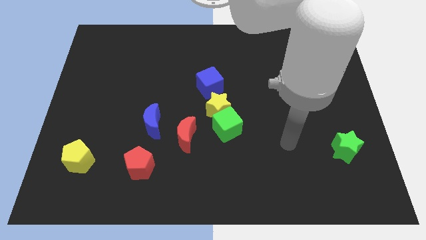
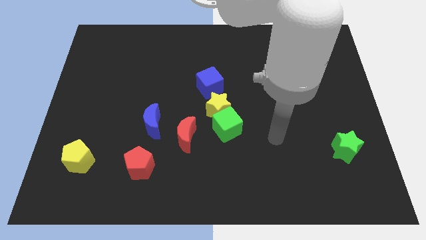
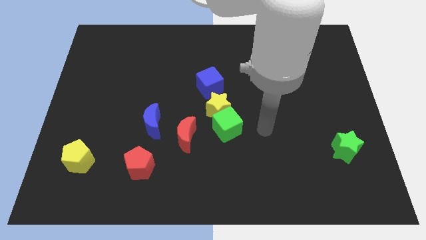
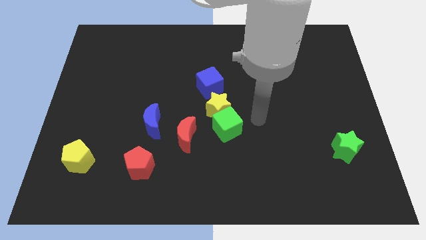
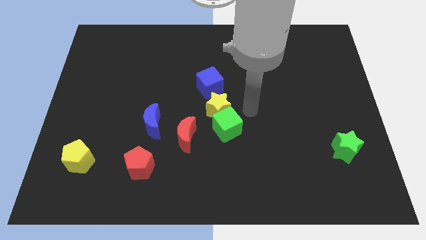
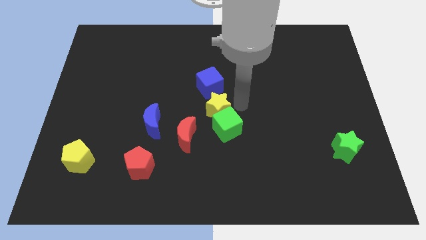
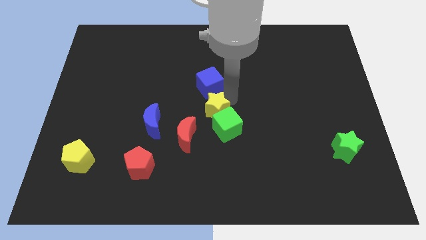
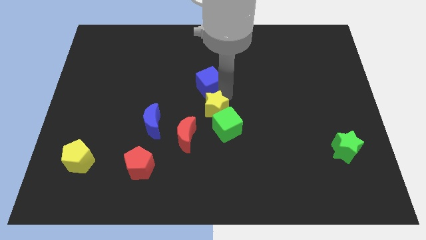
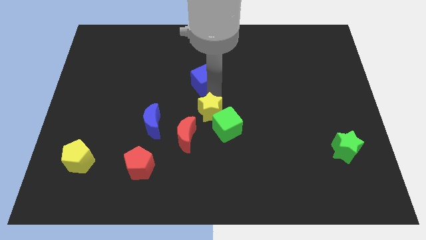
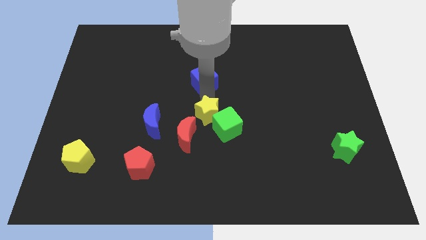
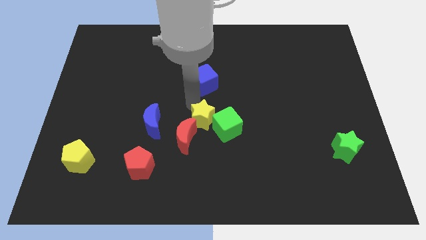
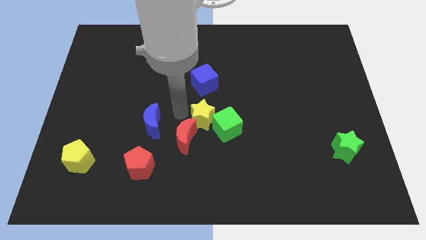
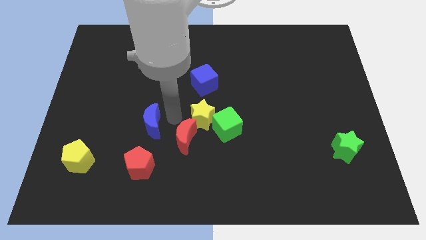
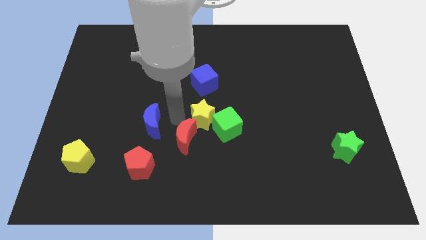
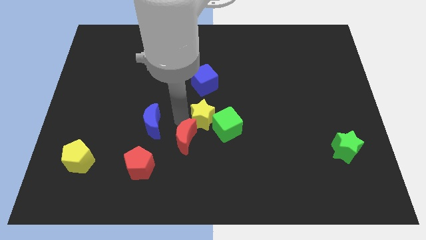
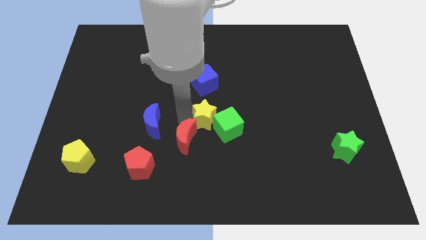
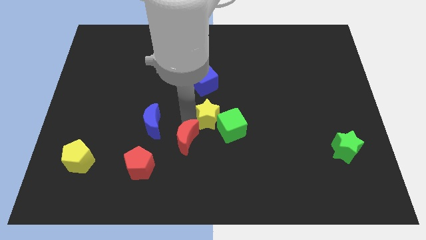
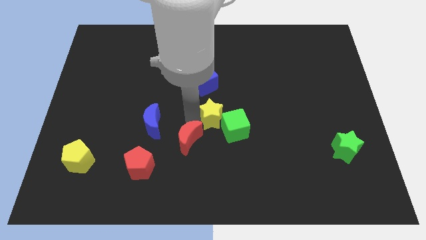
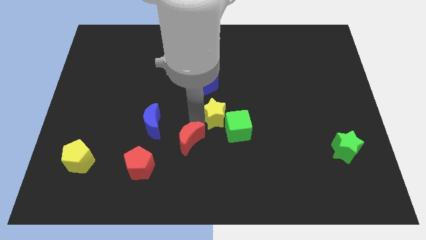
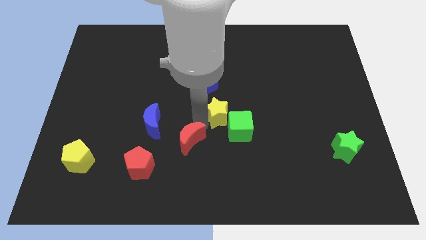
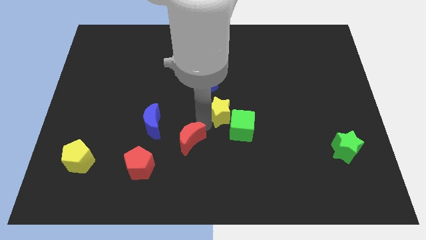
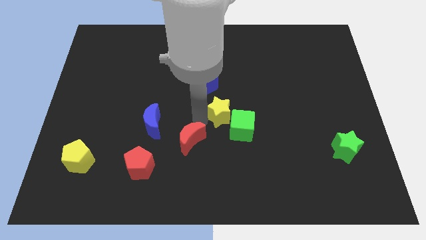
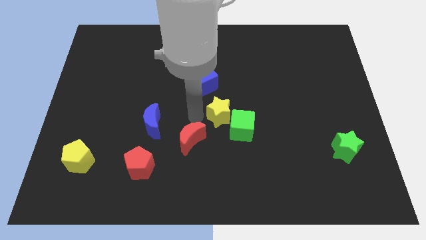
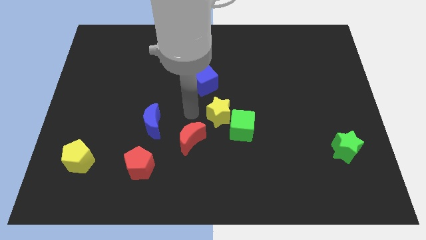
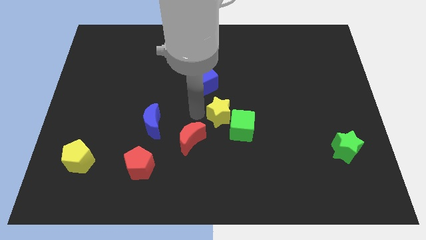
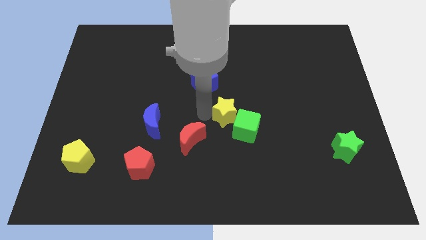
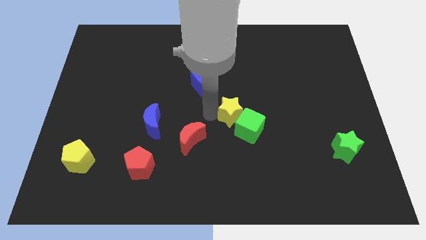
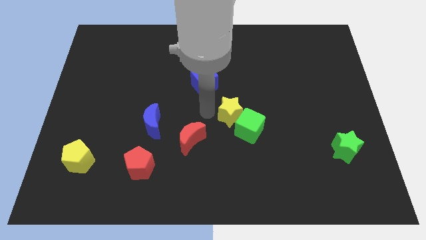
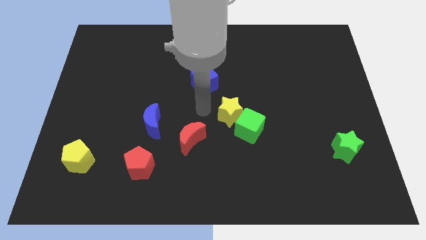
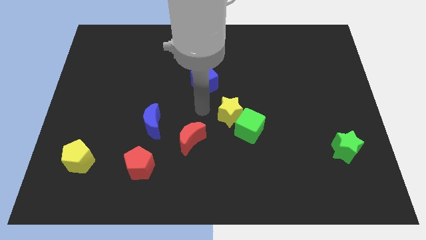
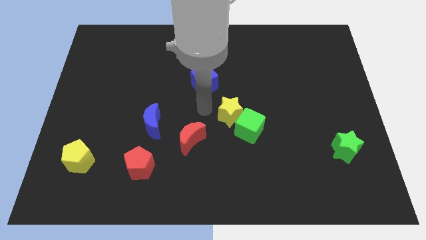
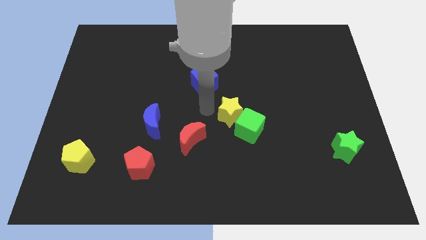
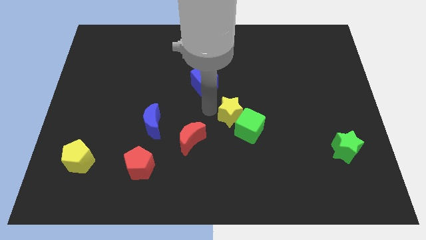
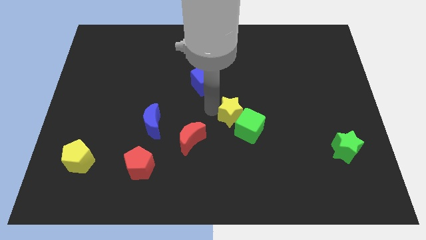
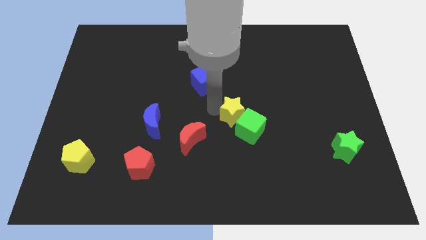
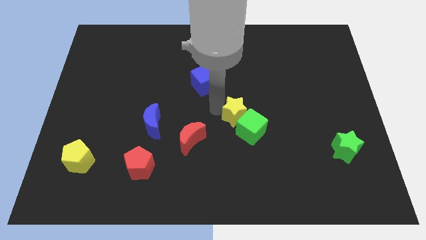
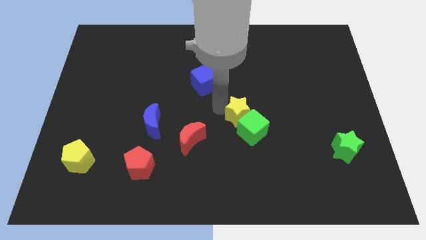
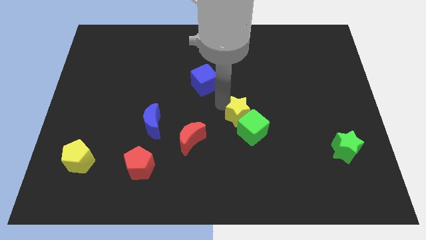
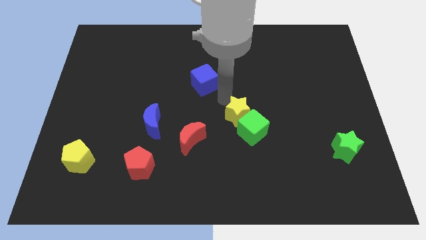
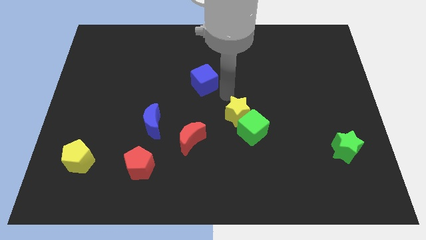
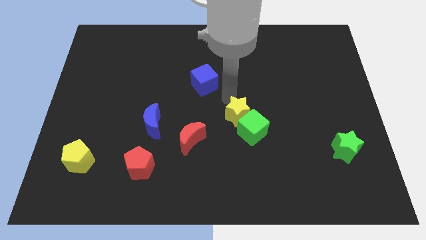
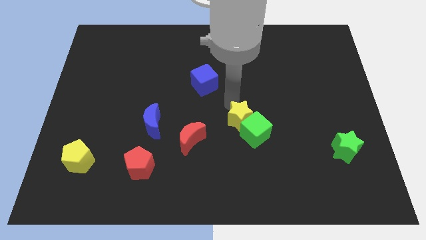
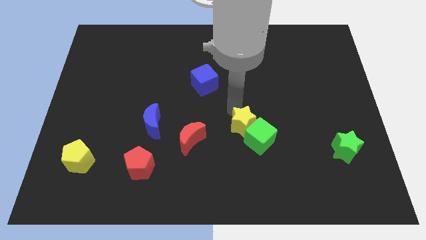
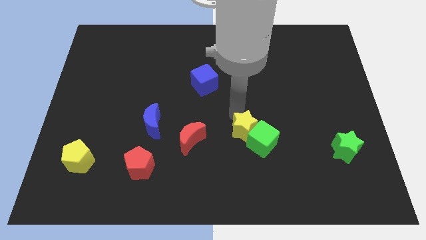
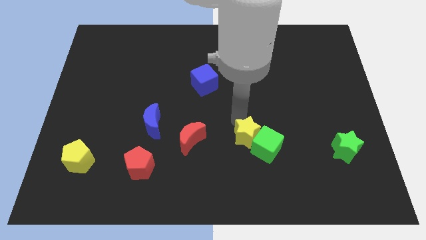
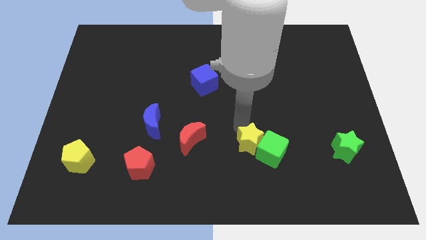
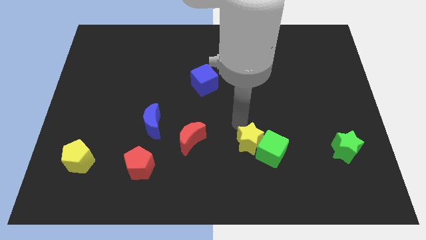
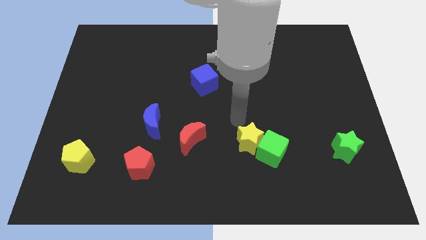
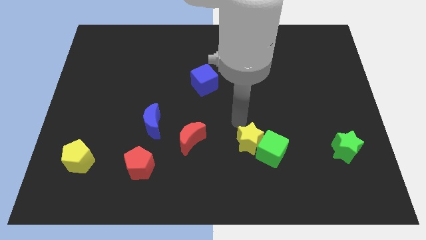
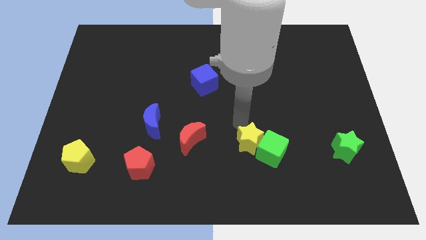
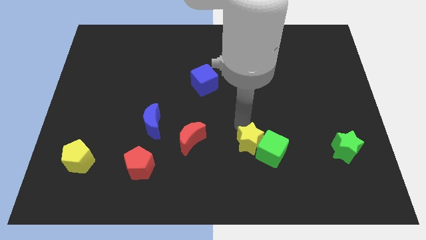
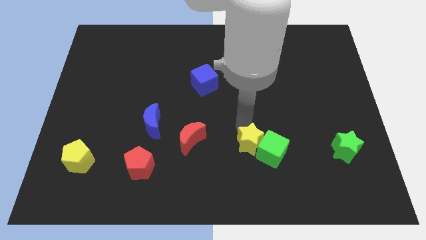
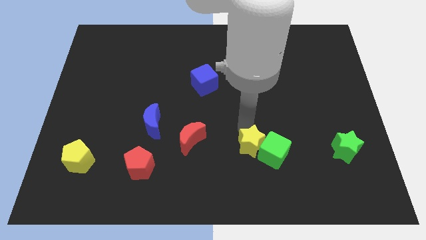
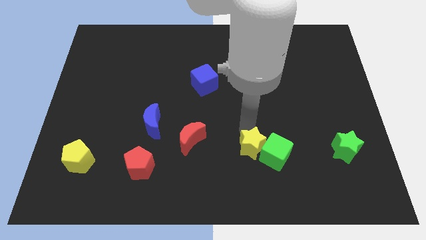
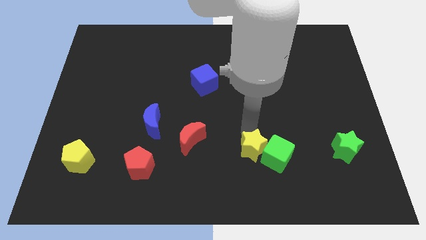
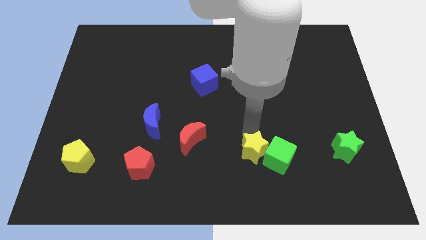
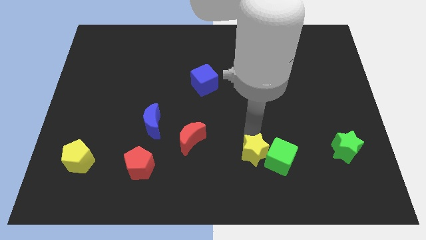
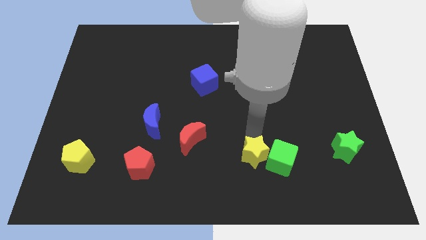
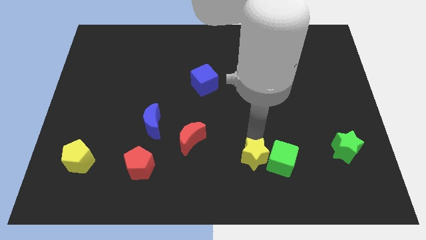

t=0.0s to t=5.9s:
move the yellow star away from the green cube and blue cube

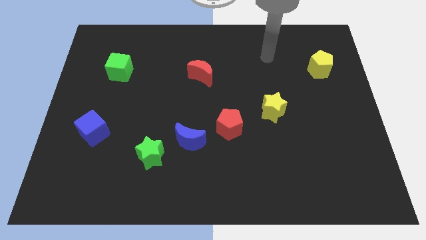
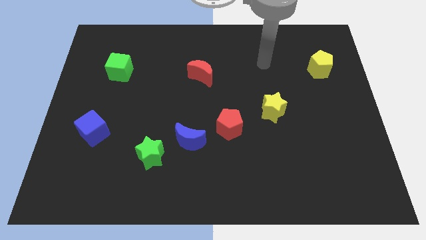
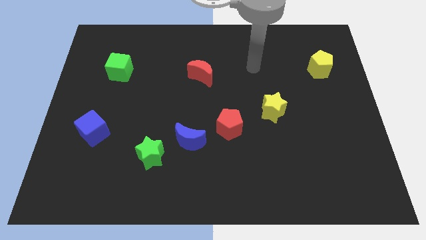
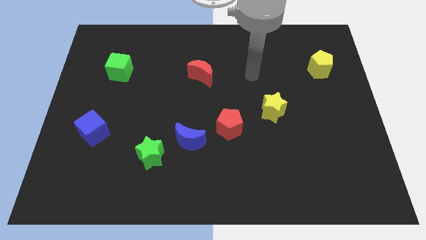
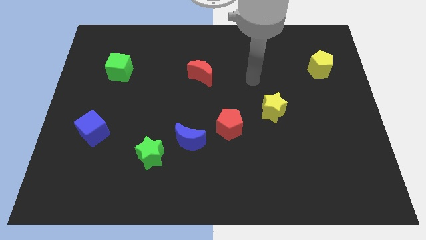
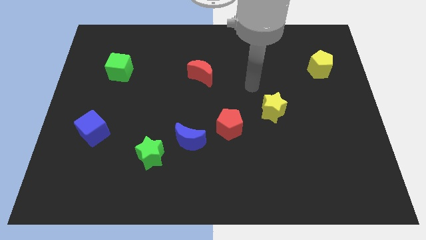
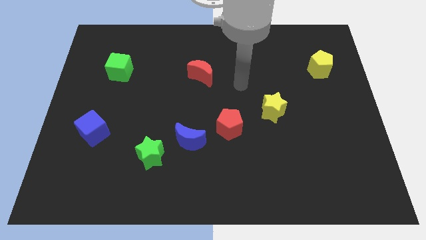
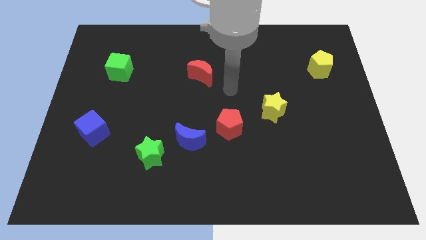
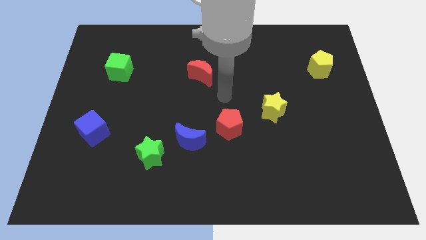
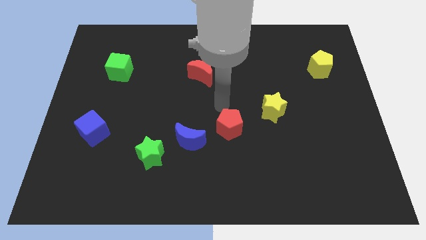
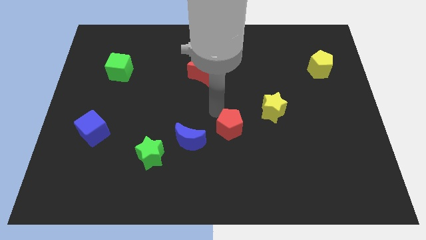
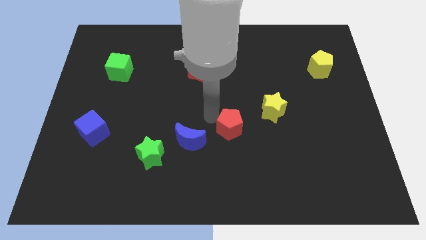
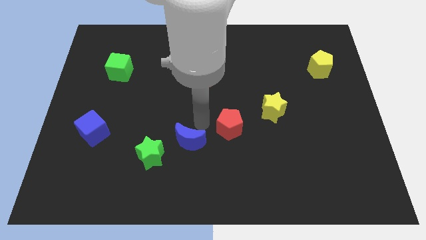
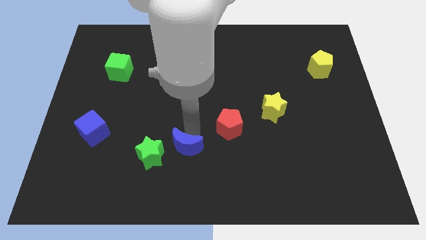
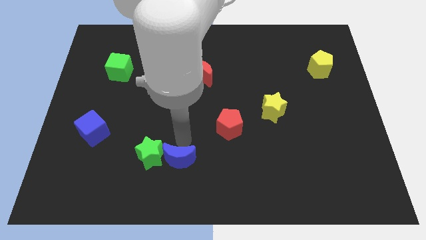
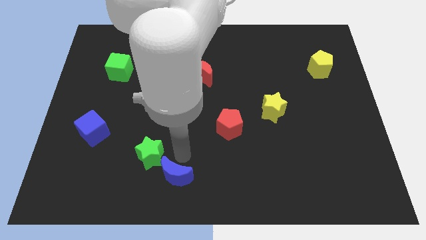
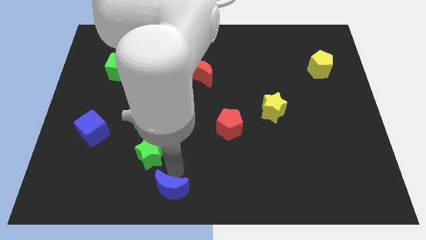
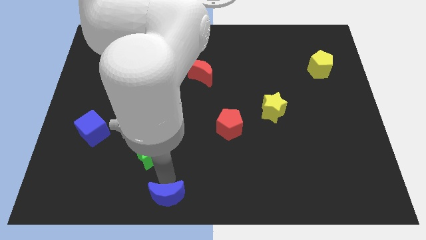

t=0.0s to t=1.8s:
pull the green star apart from the blue moon

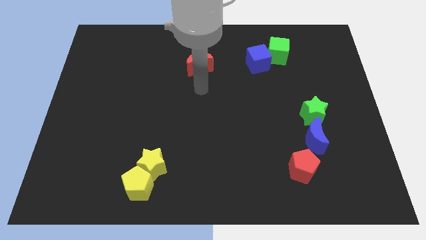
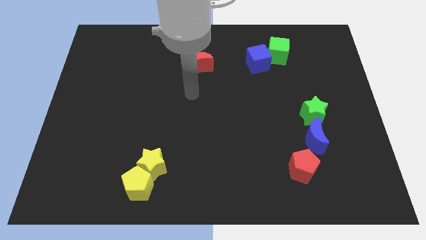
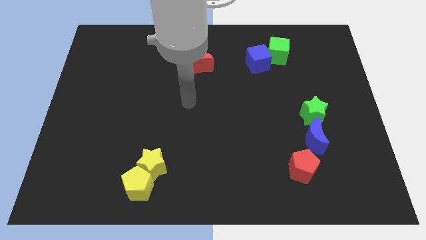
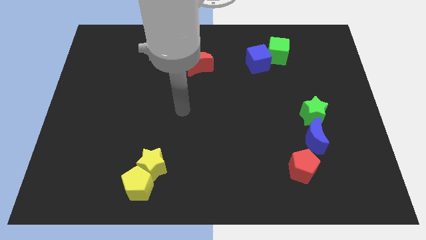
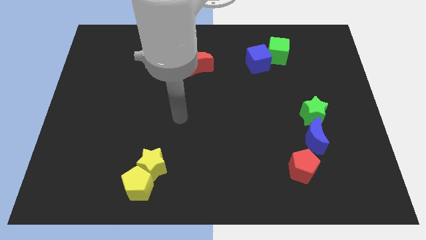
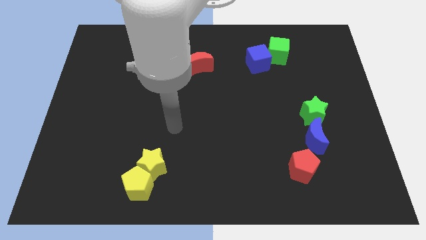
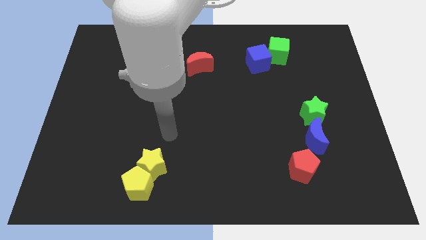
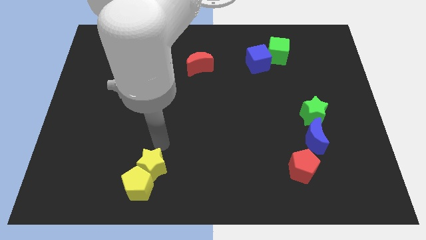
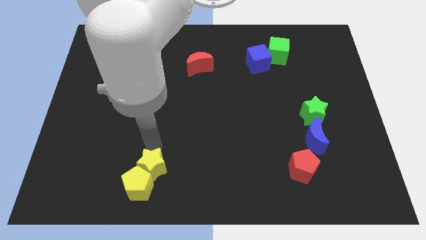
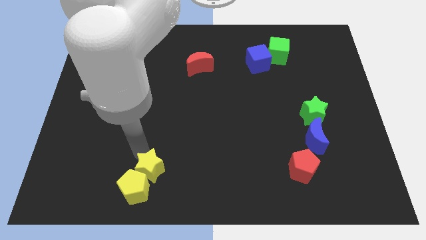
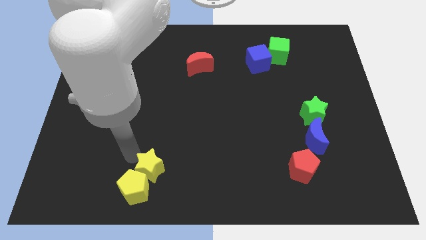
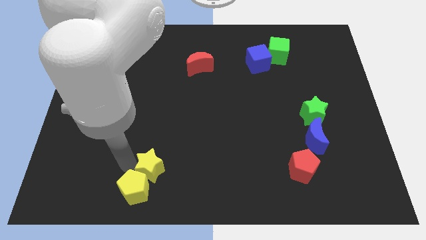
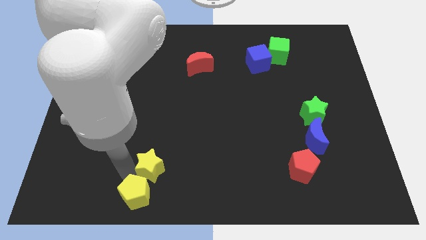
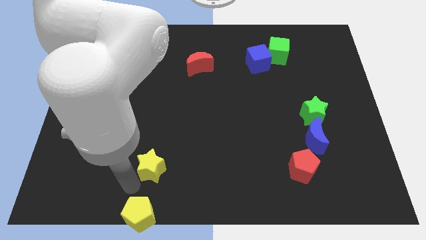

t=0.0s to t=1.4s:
separate the yellow star from the yellow pentagon
